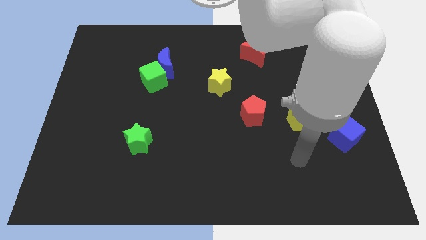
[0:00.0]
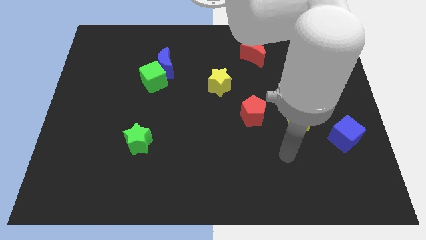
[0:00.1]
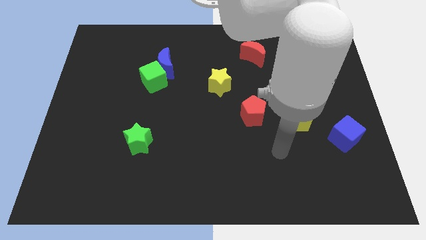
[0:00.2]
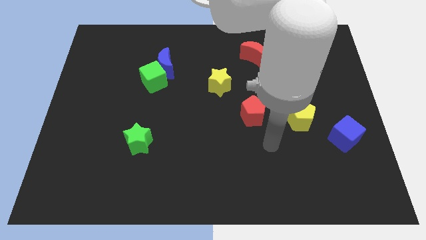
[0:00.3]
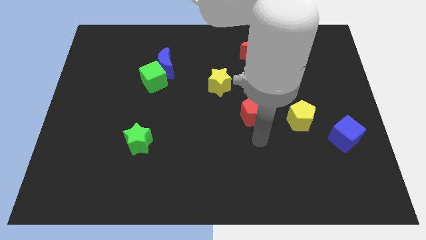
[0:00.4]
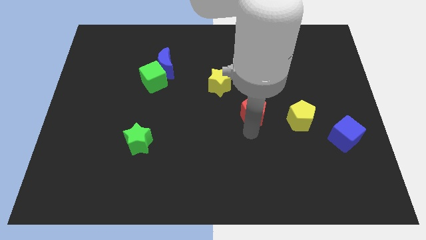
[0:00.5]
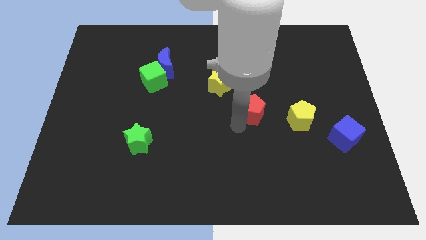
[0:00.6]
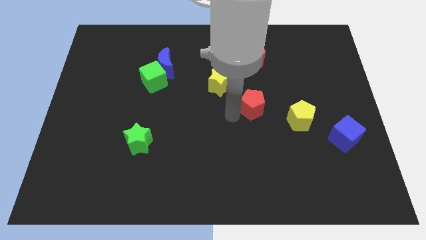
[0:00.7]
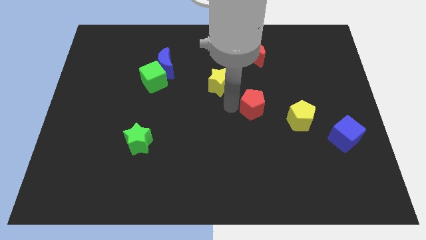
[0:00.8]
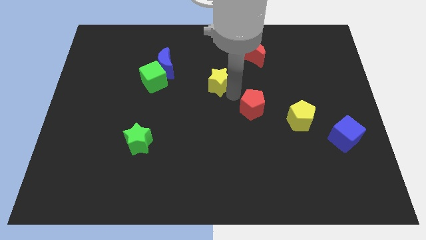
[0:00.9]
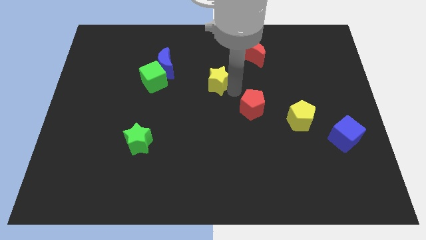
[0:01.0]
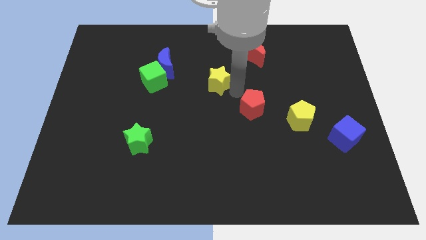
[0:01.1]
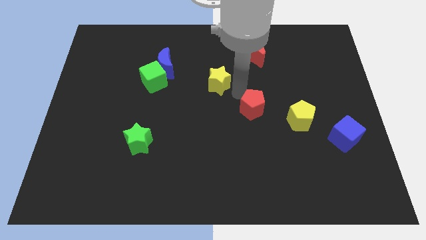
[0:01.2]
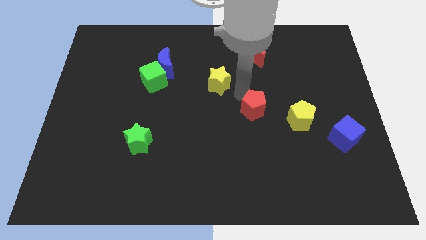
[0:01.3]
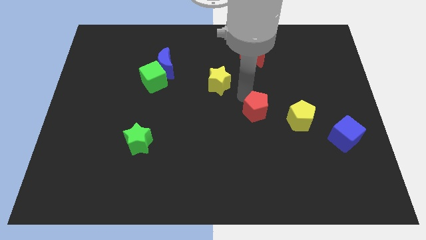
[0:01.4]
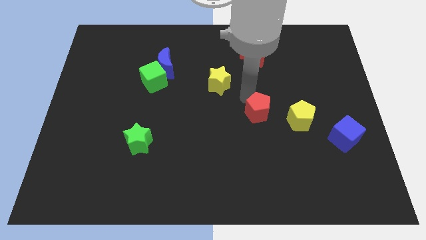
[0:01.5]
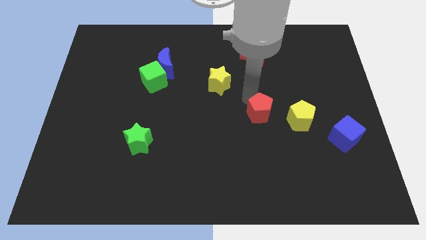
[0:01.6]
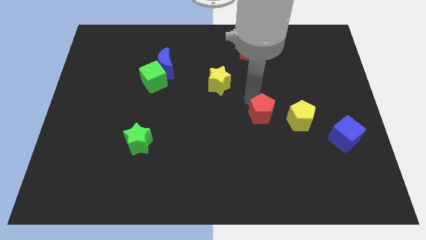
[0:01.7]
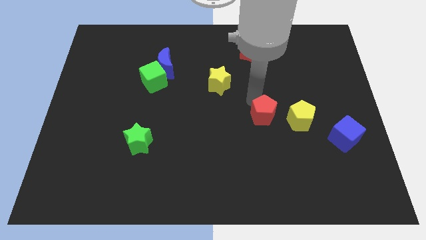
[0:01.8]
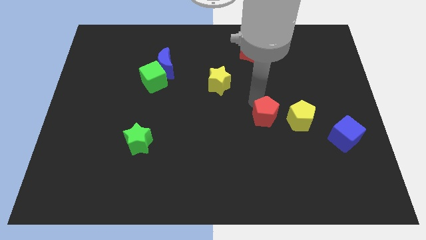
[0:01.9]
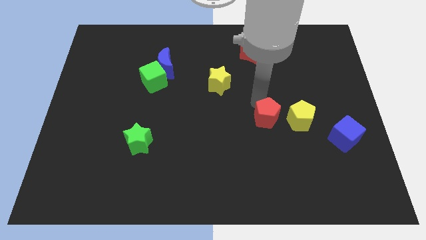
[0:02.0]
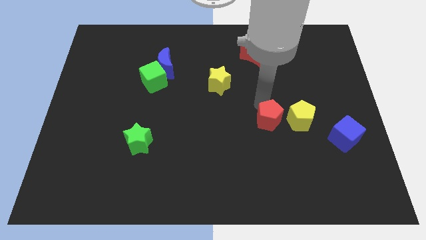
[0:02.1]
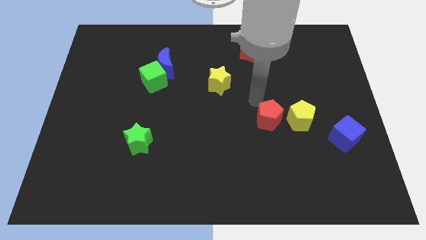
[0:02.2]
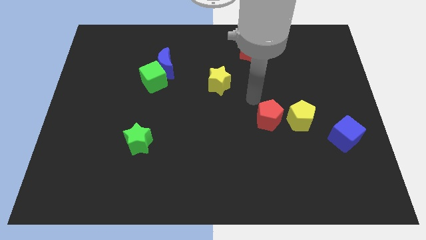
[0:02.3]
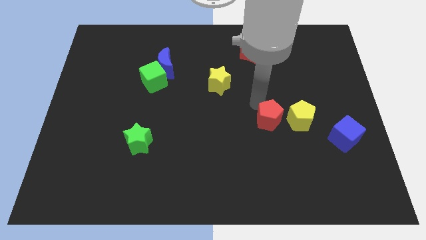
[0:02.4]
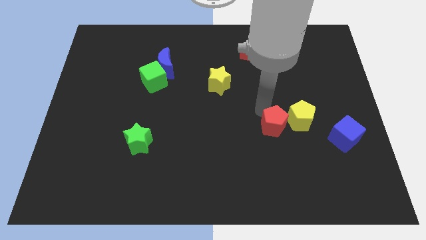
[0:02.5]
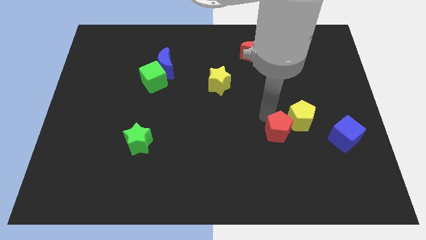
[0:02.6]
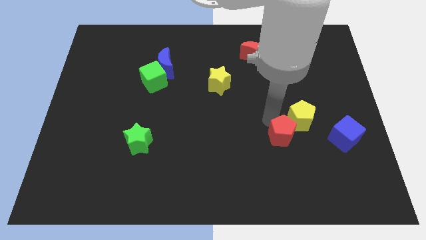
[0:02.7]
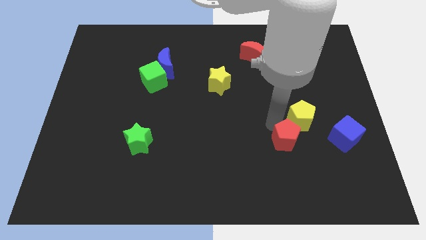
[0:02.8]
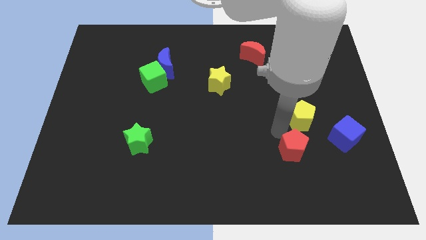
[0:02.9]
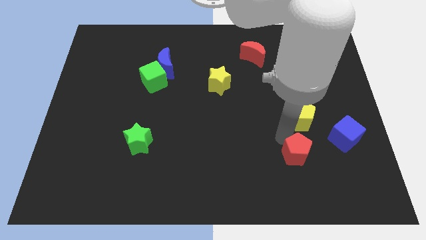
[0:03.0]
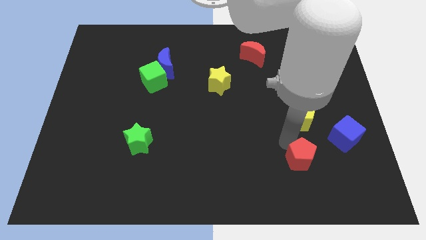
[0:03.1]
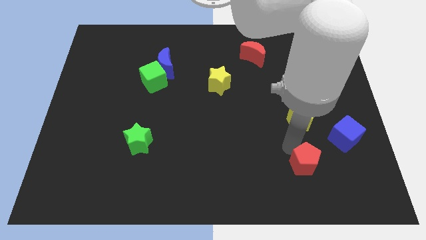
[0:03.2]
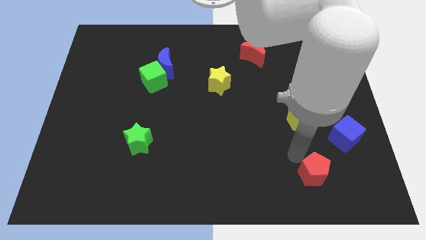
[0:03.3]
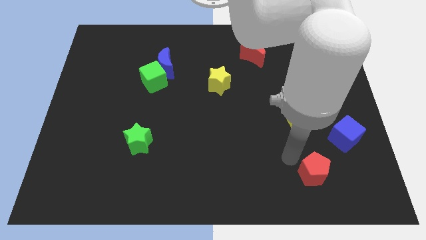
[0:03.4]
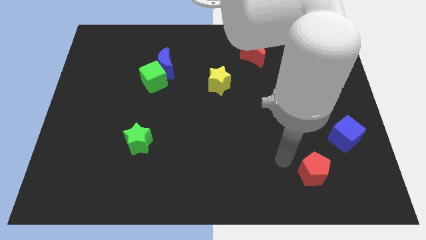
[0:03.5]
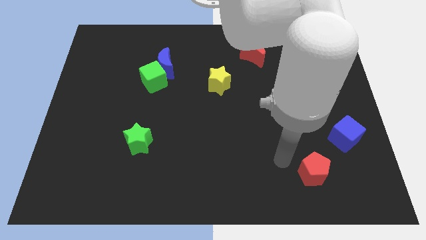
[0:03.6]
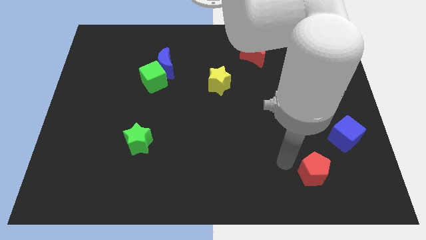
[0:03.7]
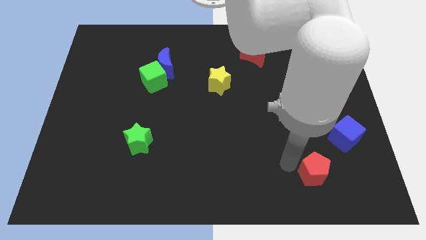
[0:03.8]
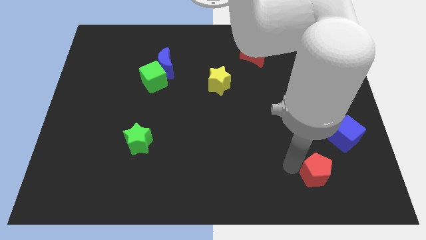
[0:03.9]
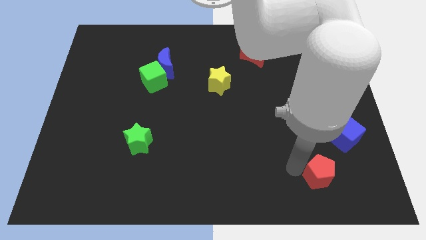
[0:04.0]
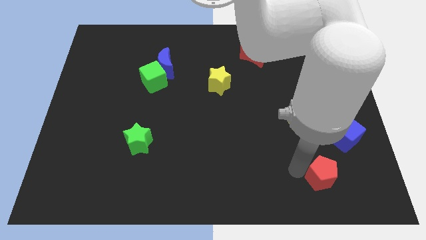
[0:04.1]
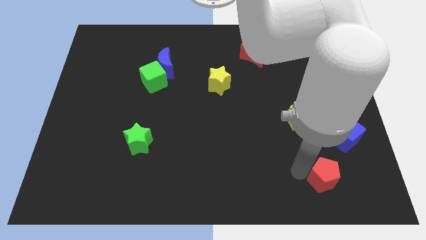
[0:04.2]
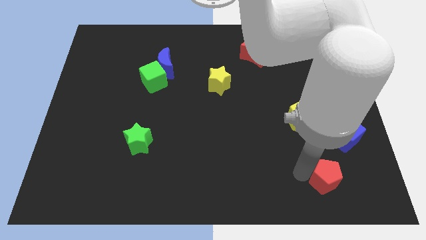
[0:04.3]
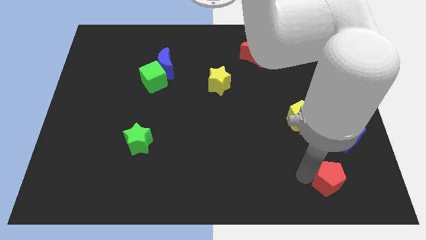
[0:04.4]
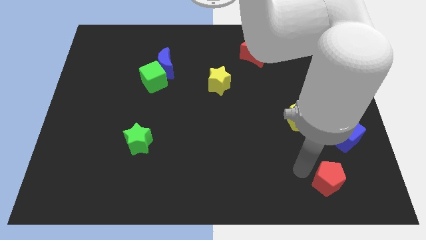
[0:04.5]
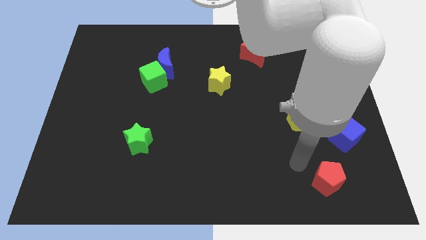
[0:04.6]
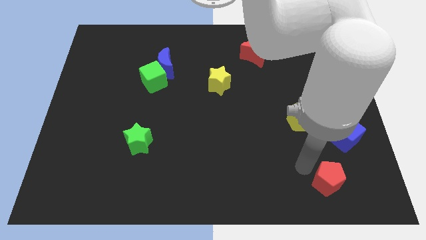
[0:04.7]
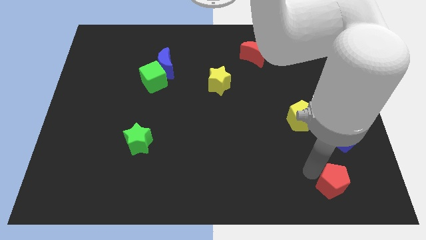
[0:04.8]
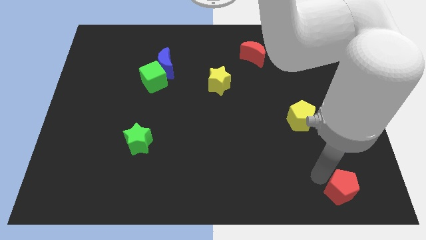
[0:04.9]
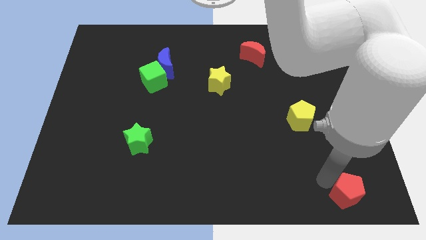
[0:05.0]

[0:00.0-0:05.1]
put the red pentagon to the lower right corner

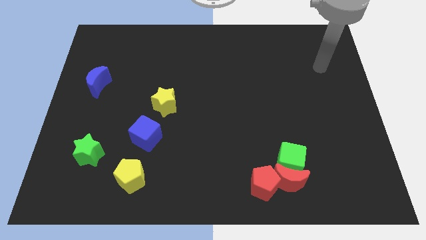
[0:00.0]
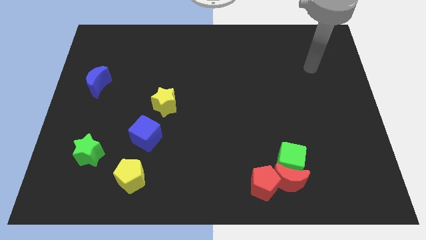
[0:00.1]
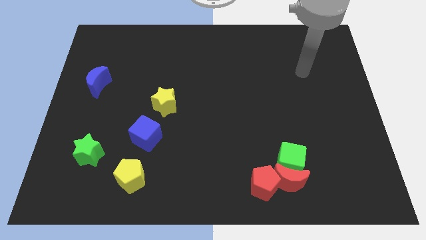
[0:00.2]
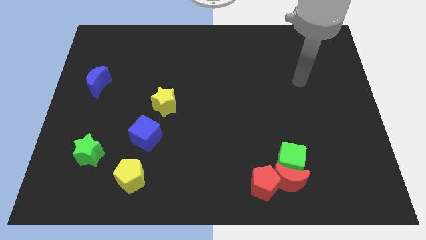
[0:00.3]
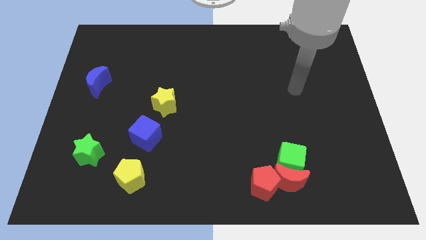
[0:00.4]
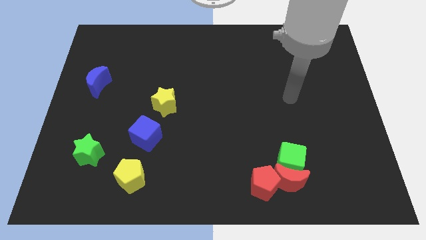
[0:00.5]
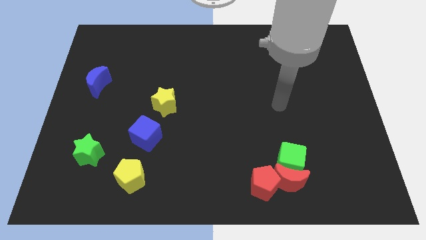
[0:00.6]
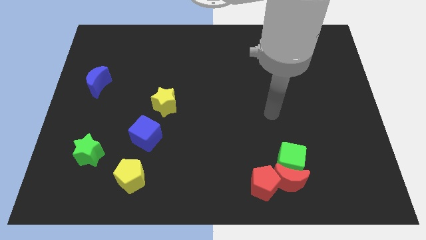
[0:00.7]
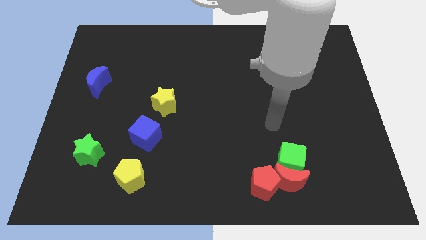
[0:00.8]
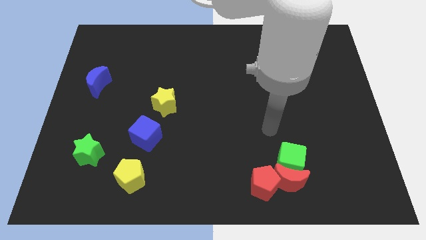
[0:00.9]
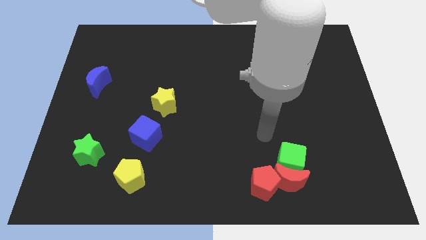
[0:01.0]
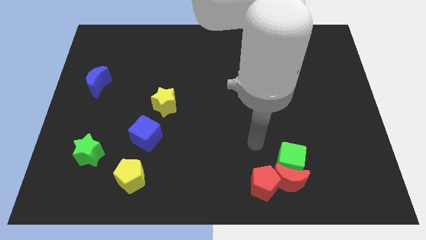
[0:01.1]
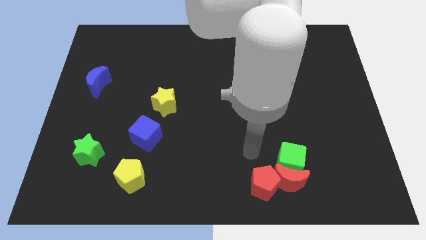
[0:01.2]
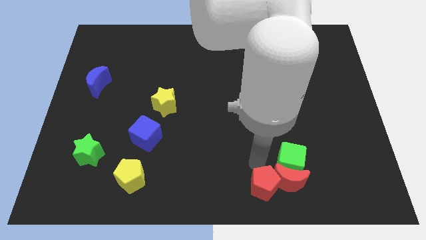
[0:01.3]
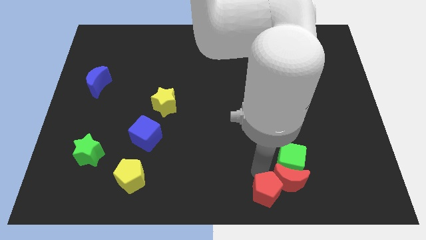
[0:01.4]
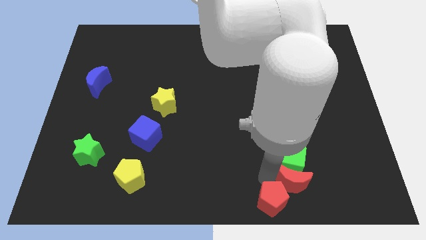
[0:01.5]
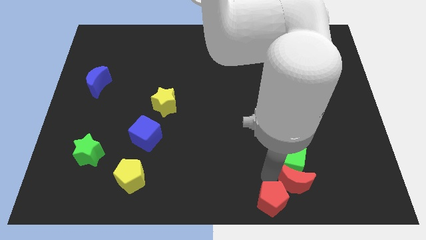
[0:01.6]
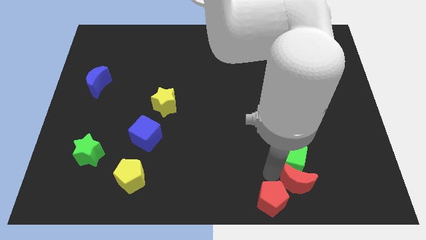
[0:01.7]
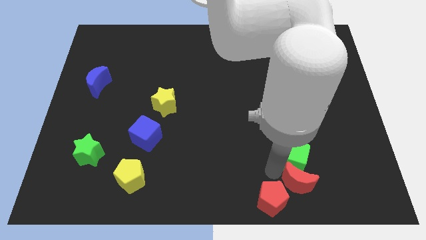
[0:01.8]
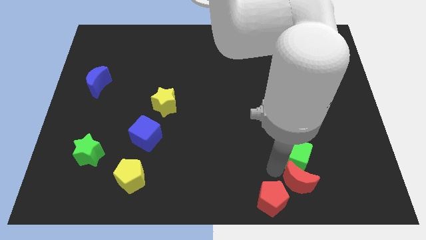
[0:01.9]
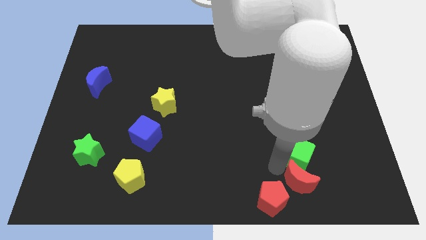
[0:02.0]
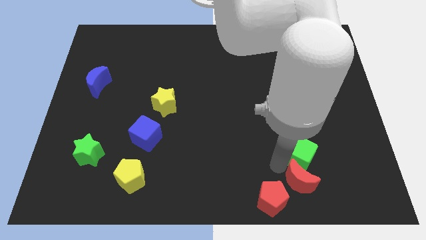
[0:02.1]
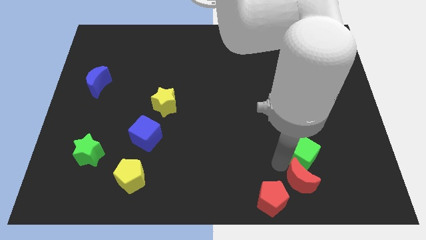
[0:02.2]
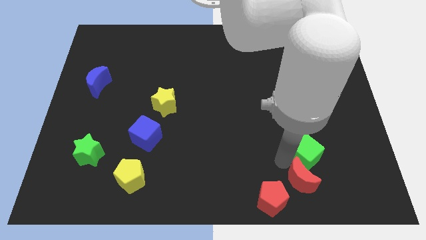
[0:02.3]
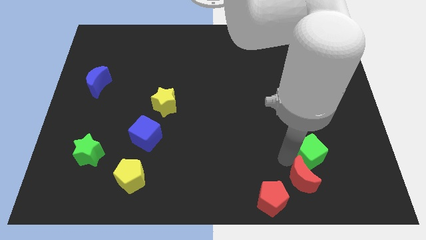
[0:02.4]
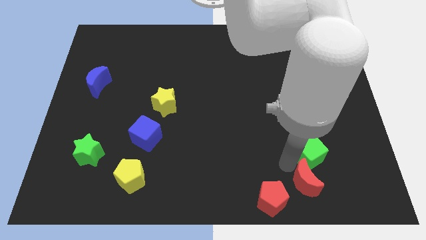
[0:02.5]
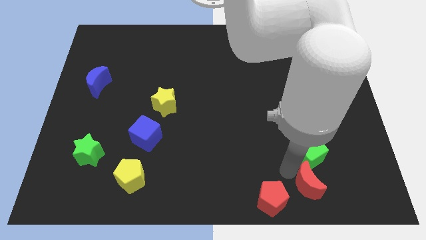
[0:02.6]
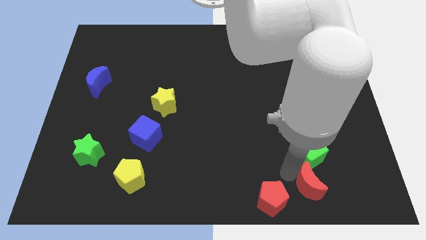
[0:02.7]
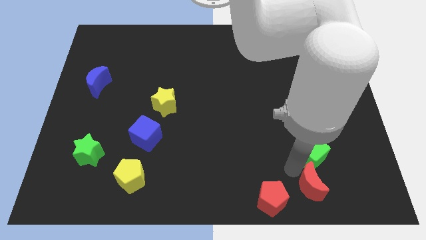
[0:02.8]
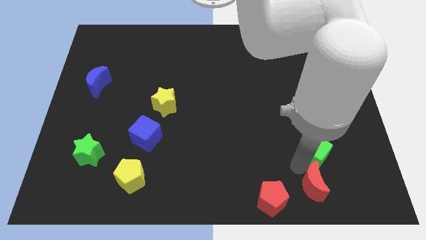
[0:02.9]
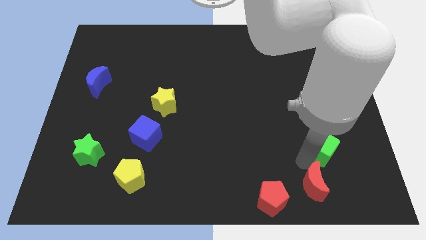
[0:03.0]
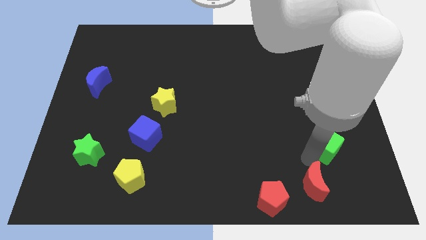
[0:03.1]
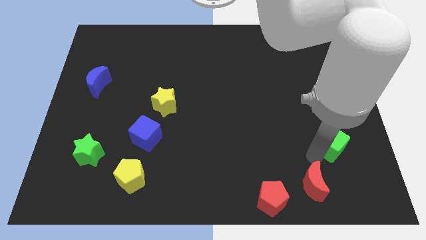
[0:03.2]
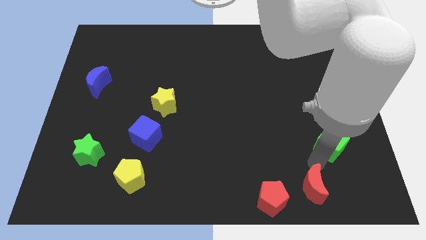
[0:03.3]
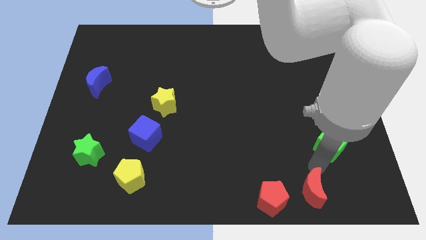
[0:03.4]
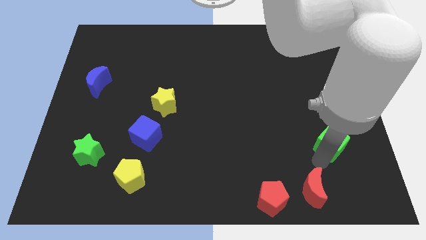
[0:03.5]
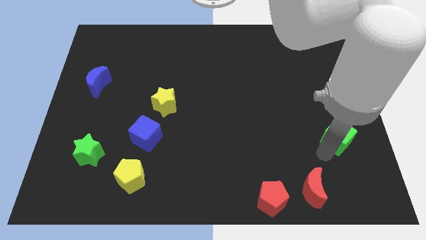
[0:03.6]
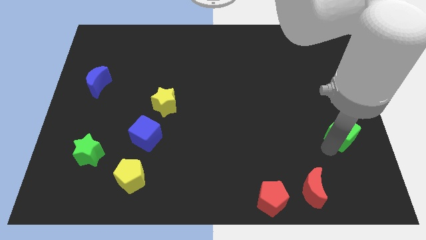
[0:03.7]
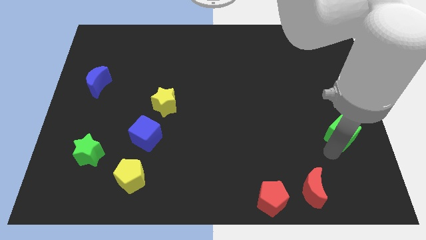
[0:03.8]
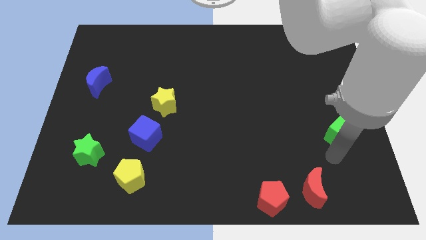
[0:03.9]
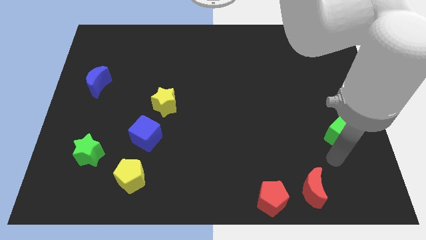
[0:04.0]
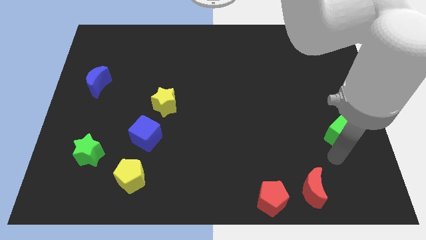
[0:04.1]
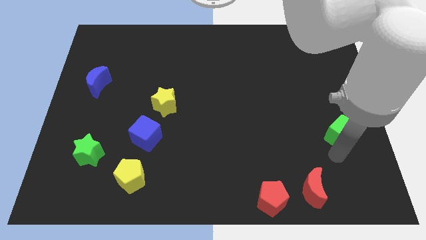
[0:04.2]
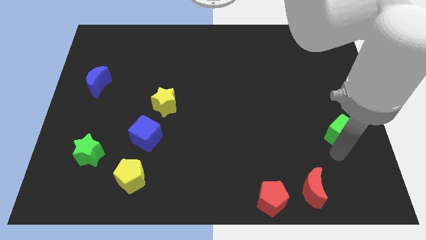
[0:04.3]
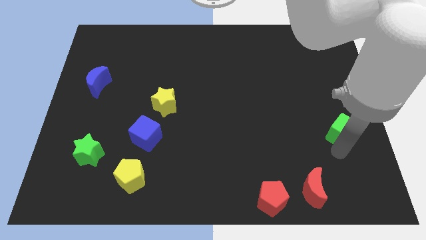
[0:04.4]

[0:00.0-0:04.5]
push the green cube to the right side of the board
